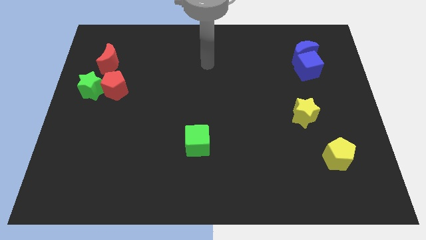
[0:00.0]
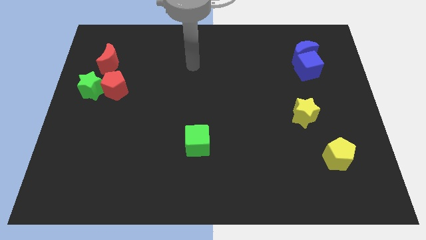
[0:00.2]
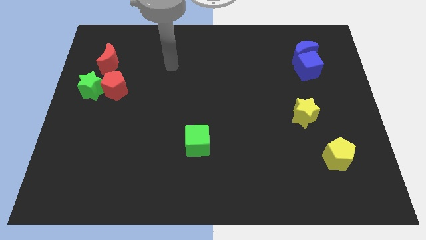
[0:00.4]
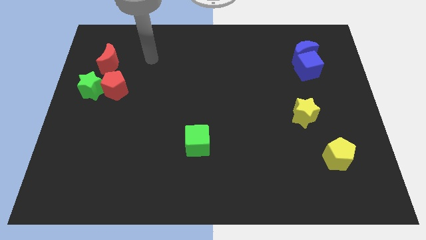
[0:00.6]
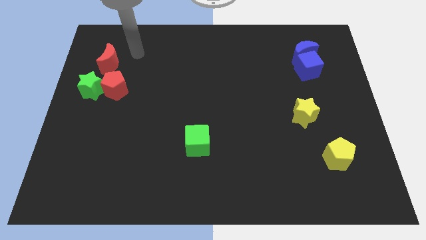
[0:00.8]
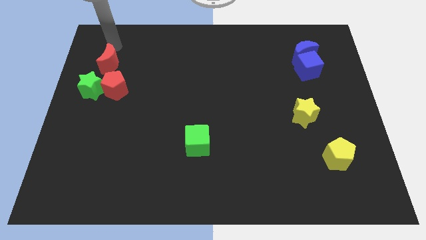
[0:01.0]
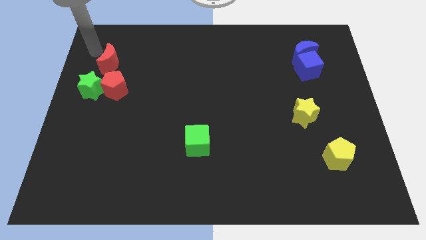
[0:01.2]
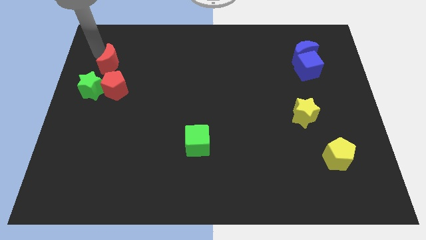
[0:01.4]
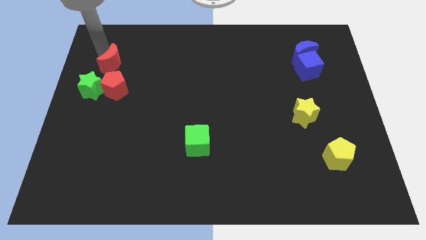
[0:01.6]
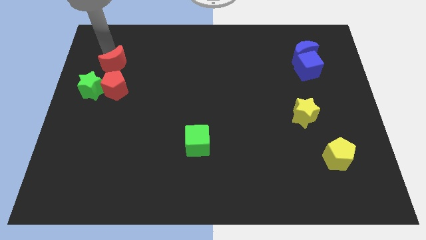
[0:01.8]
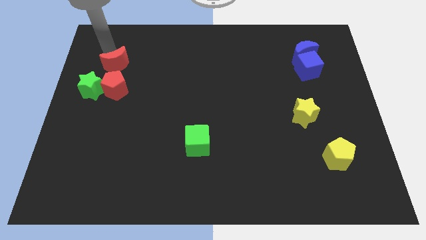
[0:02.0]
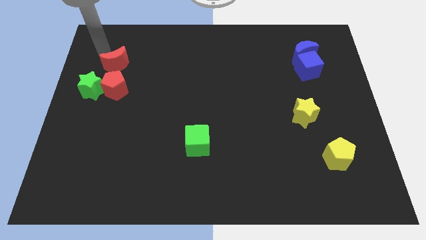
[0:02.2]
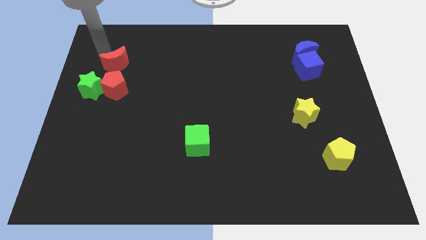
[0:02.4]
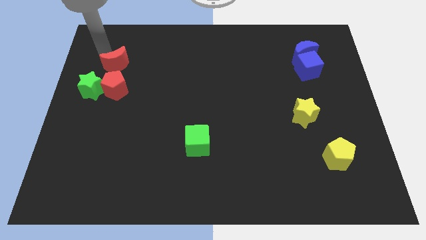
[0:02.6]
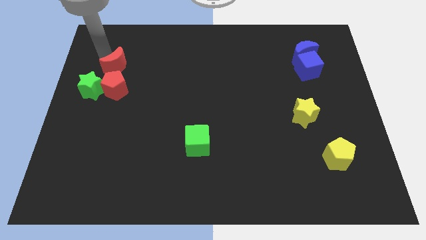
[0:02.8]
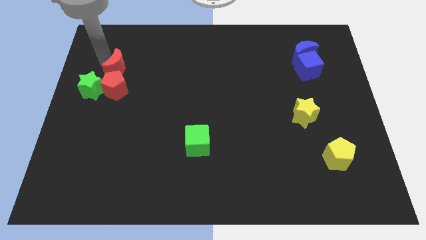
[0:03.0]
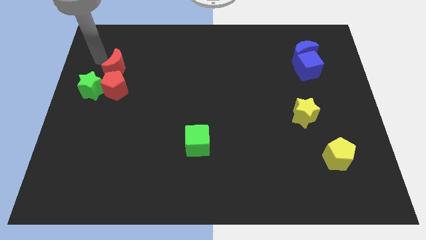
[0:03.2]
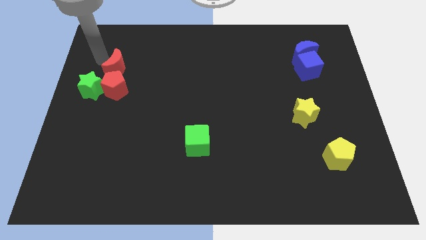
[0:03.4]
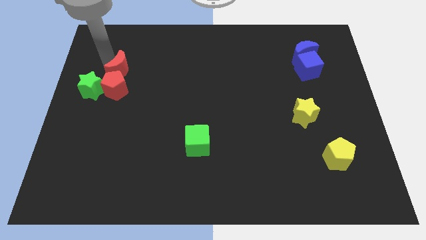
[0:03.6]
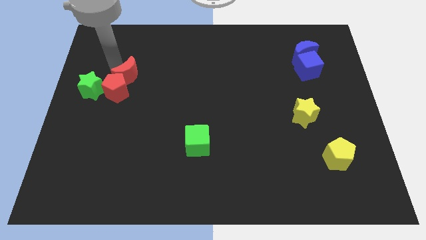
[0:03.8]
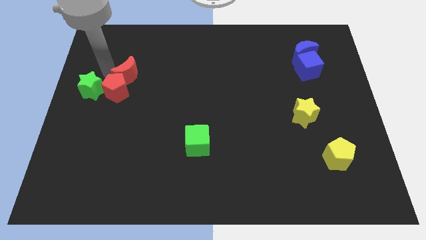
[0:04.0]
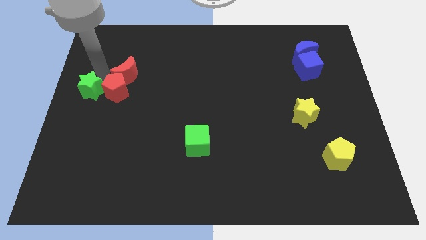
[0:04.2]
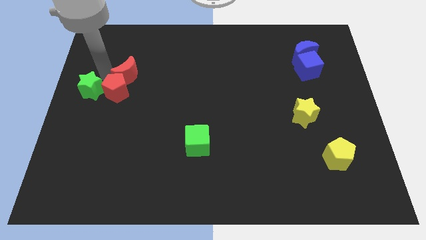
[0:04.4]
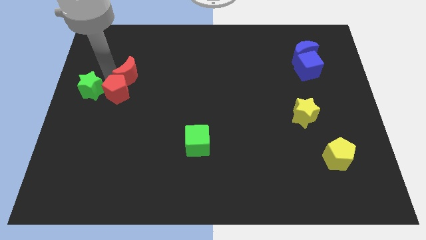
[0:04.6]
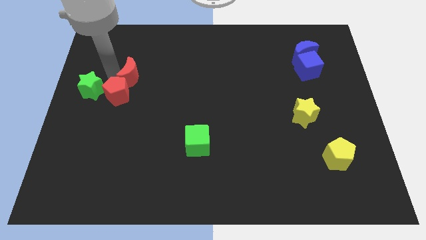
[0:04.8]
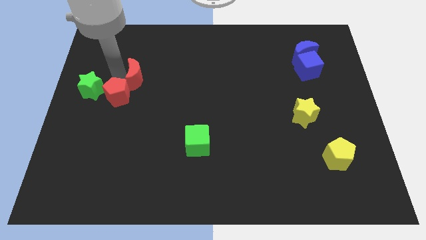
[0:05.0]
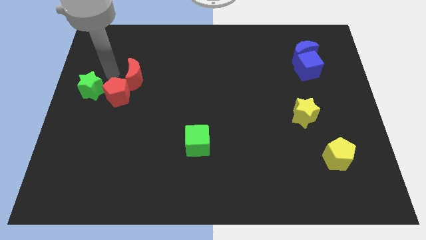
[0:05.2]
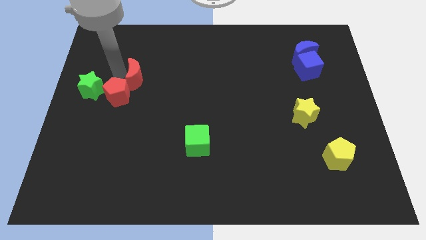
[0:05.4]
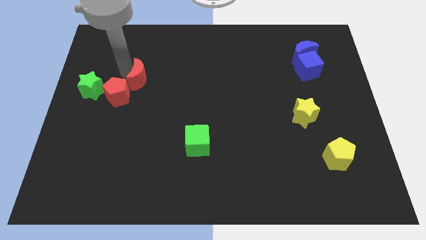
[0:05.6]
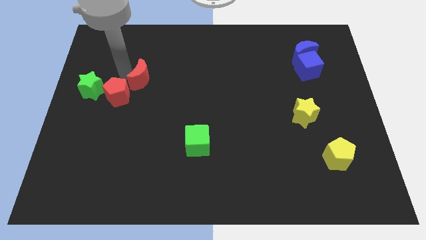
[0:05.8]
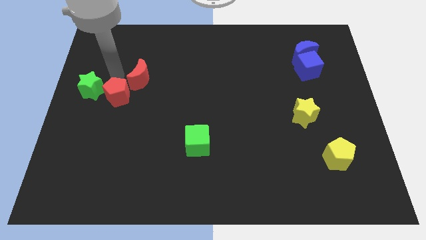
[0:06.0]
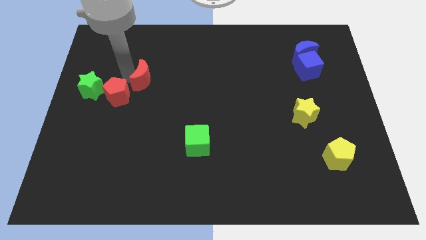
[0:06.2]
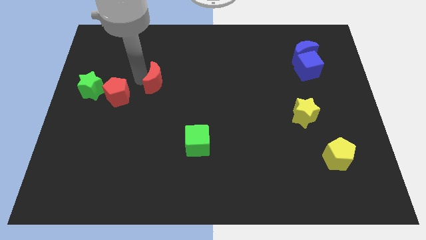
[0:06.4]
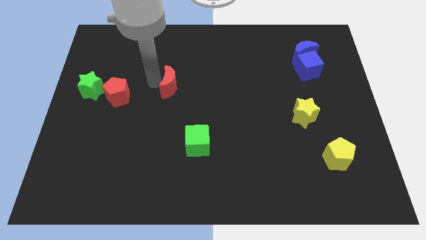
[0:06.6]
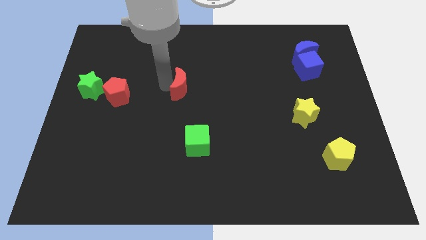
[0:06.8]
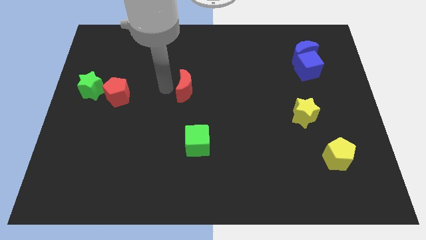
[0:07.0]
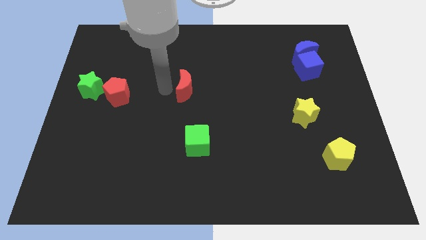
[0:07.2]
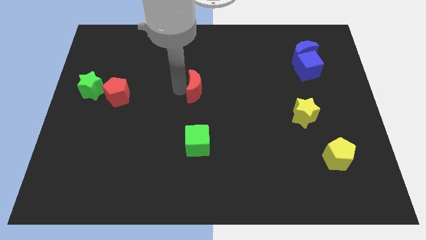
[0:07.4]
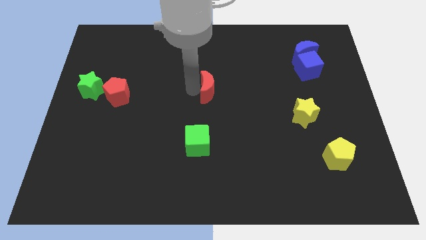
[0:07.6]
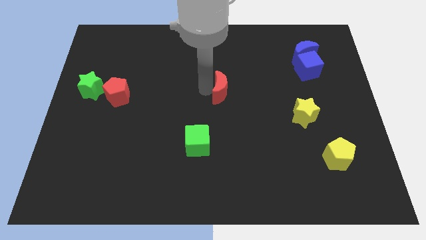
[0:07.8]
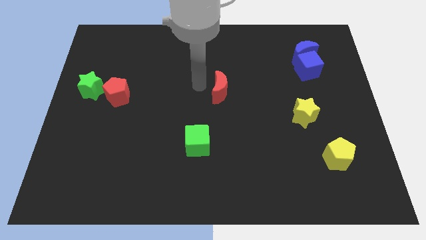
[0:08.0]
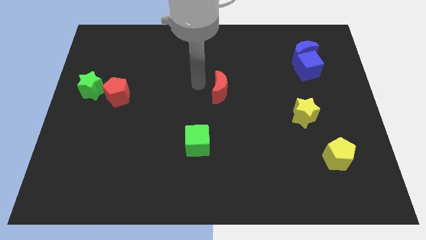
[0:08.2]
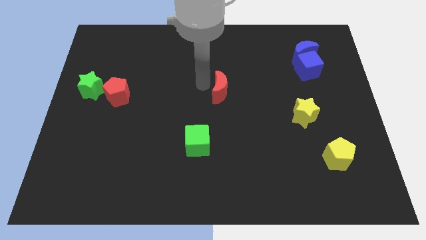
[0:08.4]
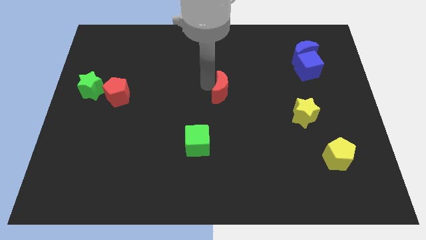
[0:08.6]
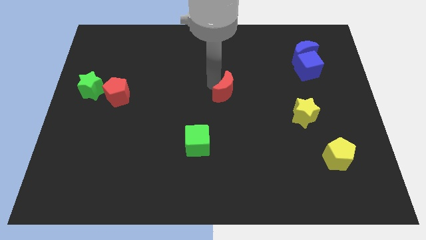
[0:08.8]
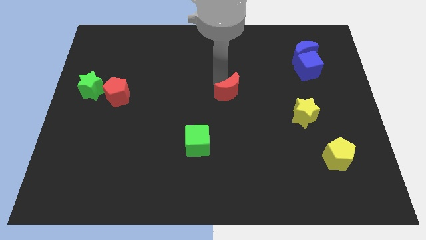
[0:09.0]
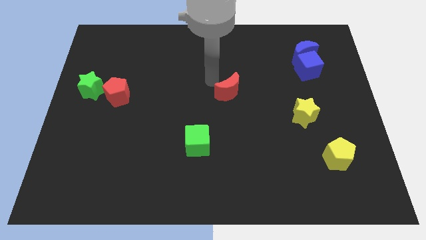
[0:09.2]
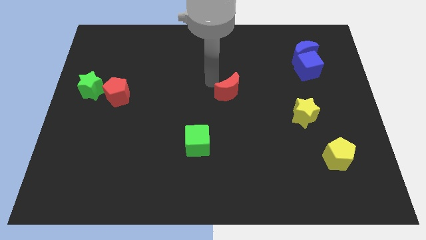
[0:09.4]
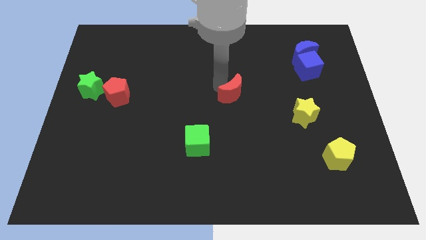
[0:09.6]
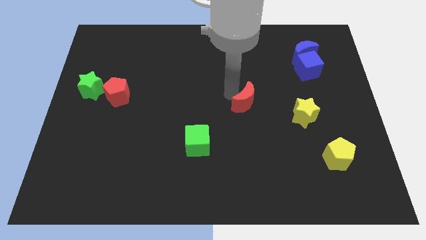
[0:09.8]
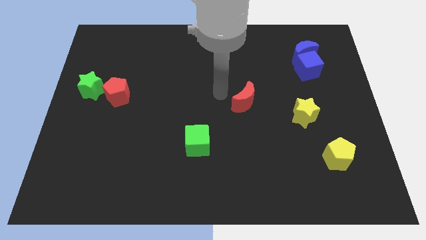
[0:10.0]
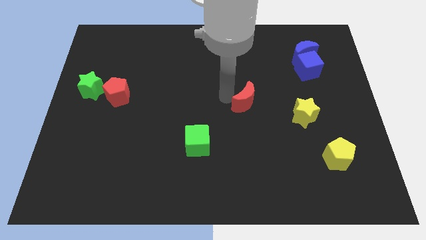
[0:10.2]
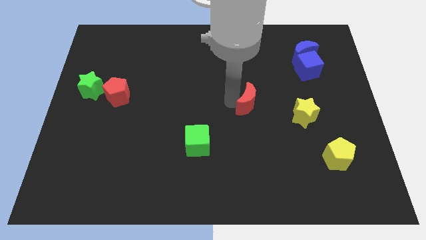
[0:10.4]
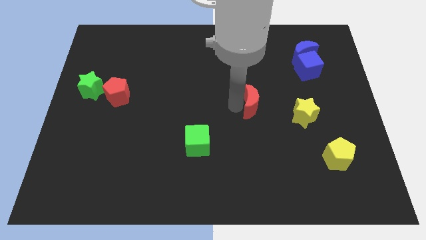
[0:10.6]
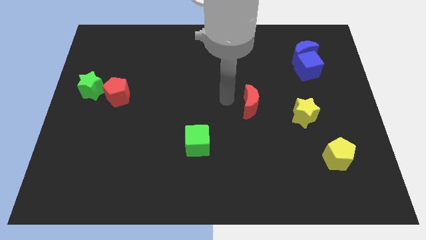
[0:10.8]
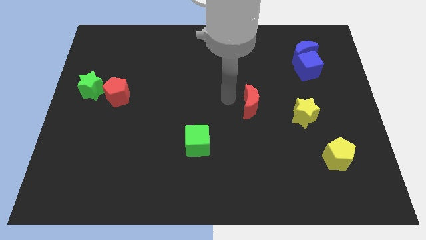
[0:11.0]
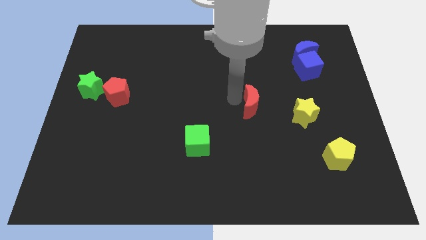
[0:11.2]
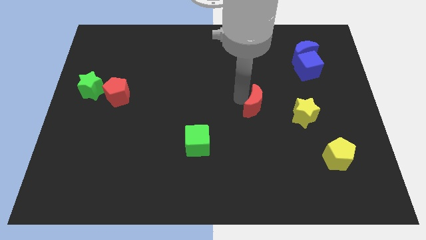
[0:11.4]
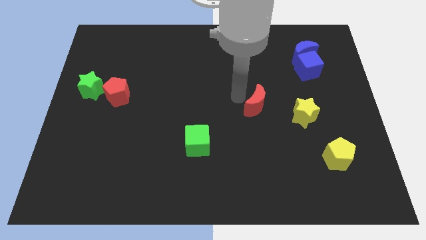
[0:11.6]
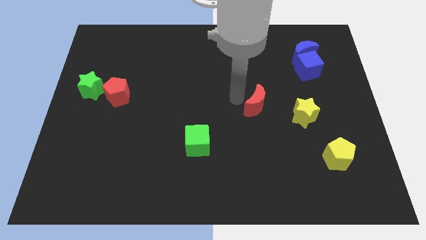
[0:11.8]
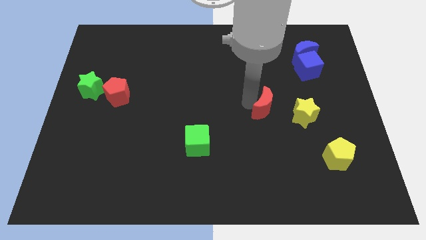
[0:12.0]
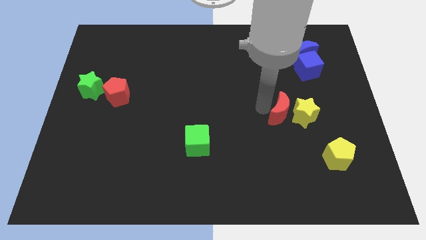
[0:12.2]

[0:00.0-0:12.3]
push the red moon close to the yellow star

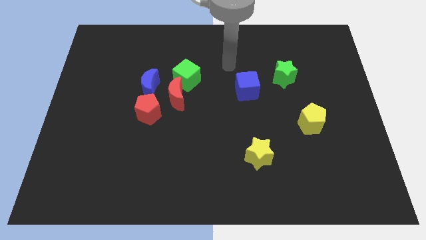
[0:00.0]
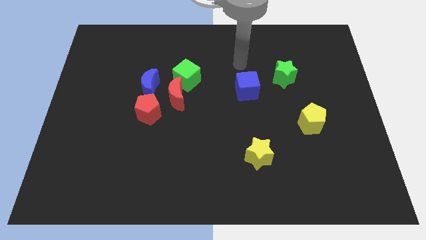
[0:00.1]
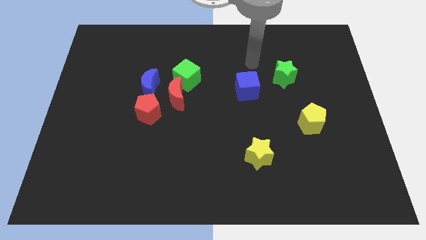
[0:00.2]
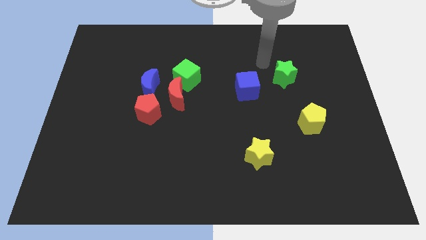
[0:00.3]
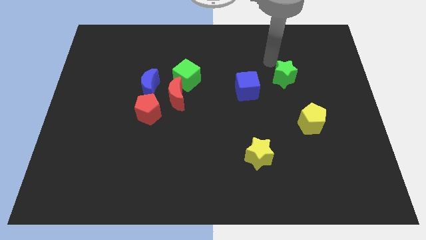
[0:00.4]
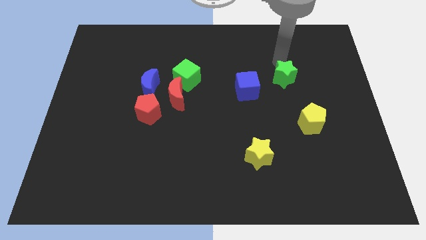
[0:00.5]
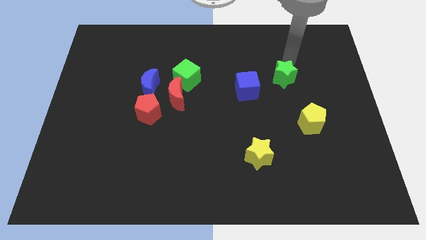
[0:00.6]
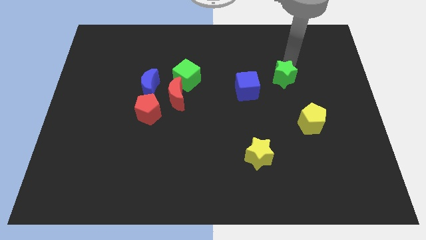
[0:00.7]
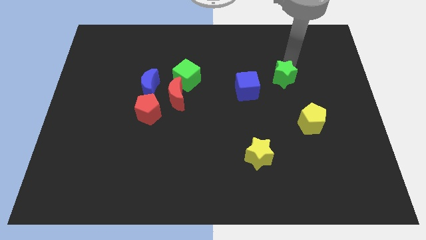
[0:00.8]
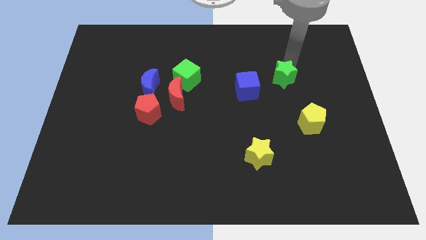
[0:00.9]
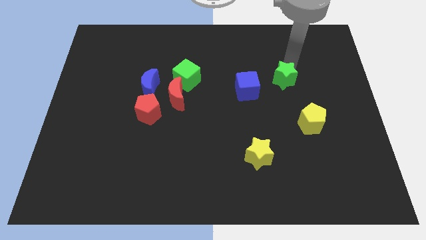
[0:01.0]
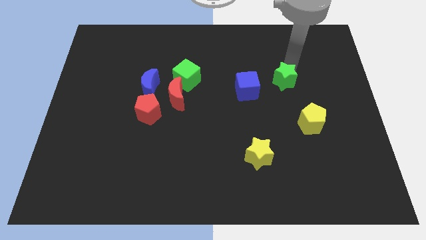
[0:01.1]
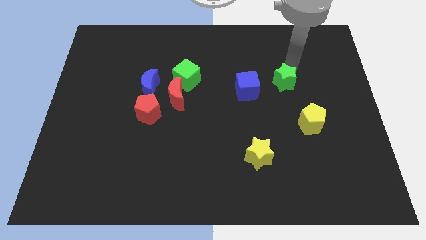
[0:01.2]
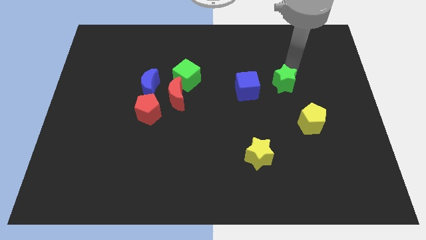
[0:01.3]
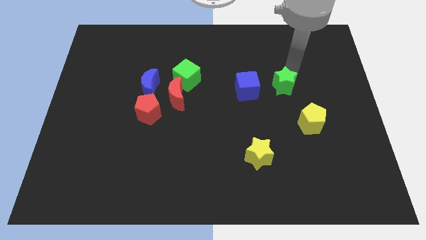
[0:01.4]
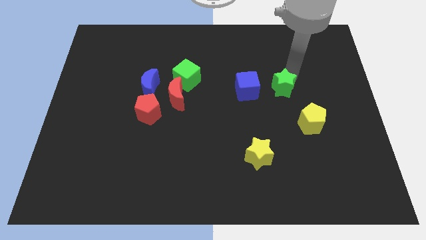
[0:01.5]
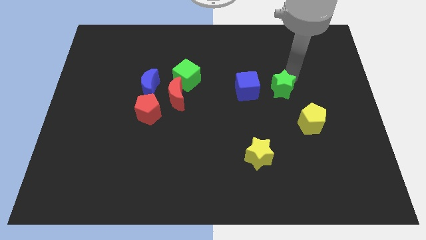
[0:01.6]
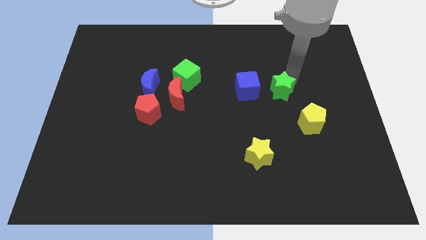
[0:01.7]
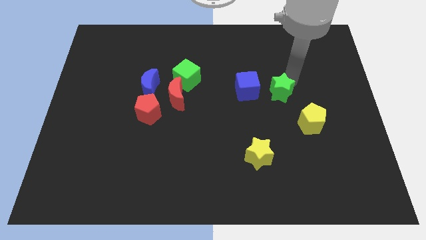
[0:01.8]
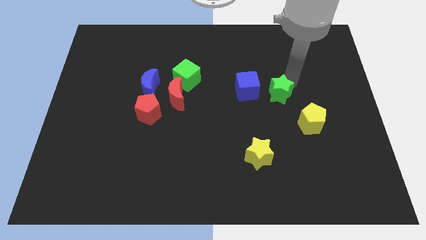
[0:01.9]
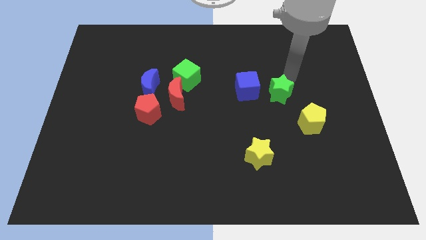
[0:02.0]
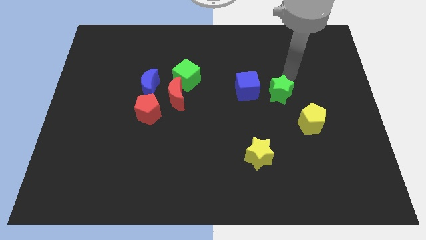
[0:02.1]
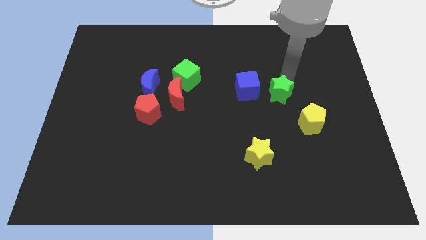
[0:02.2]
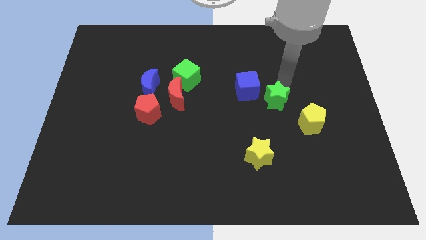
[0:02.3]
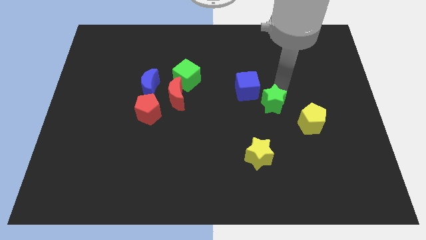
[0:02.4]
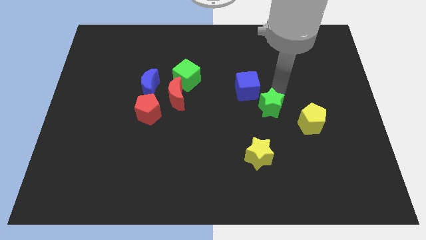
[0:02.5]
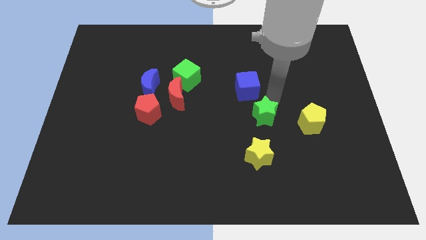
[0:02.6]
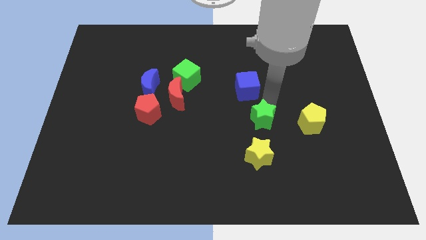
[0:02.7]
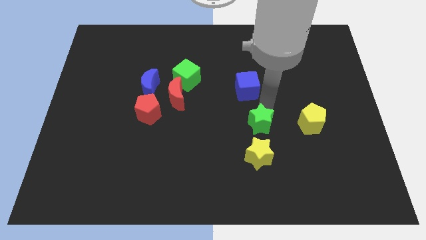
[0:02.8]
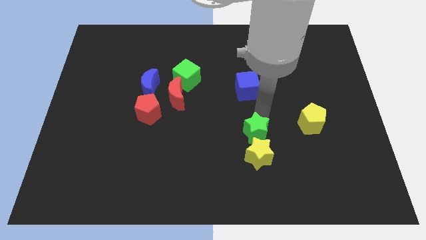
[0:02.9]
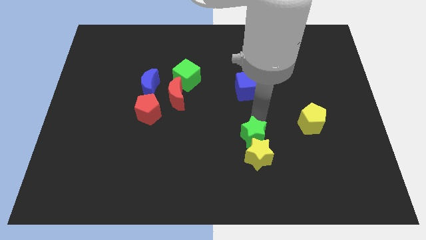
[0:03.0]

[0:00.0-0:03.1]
slide the green star next to the yellow star
